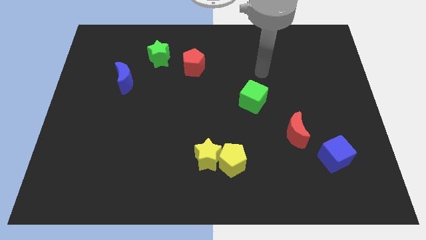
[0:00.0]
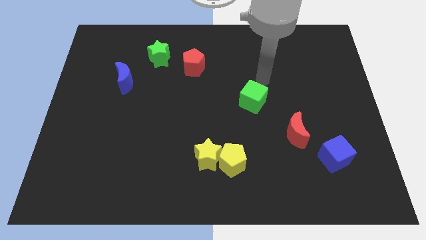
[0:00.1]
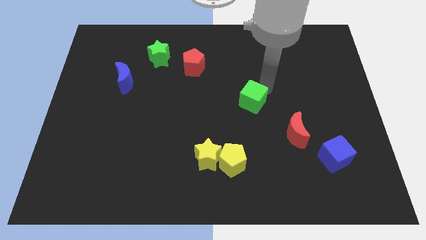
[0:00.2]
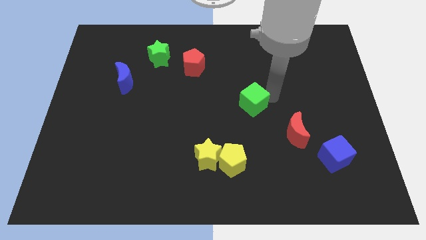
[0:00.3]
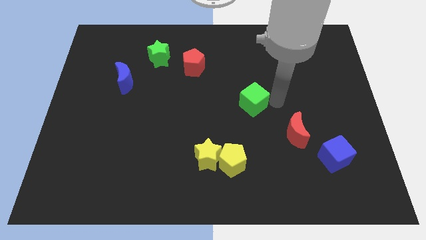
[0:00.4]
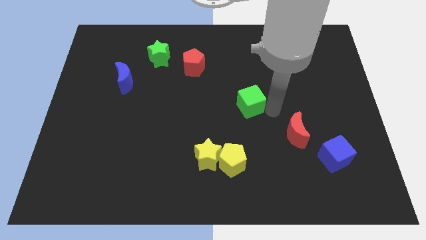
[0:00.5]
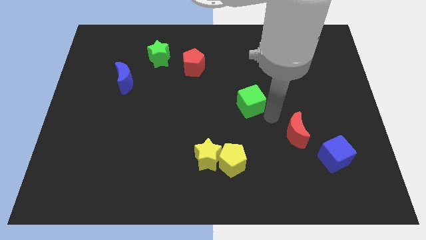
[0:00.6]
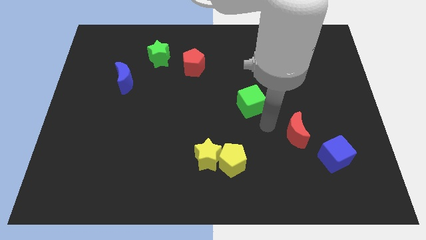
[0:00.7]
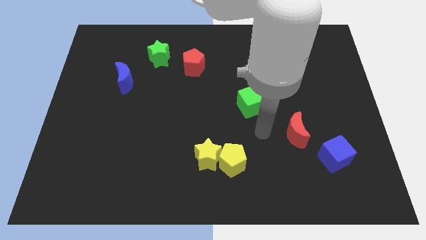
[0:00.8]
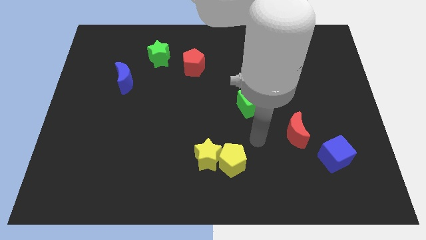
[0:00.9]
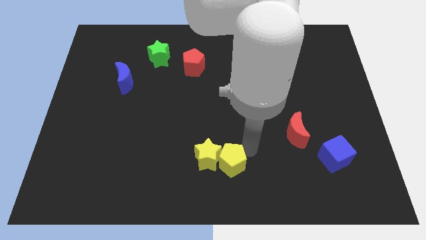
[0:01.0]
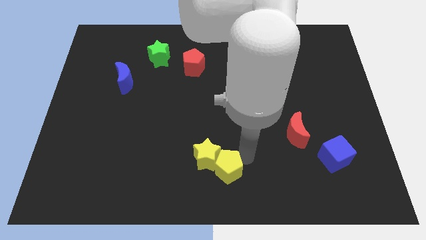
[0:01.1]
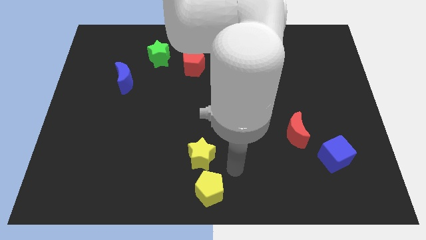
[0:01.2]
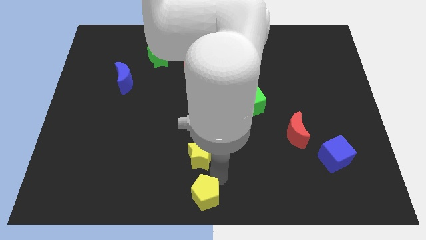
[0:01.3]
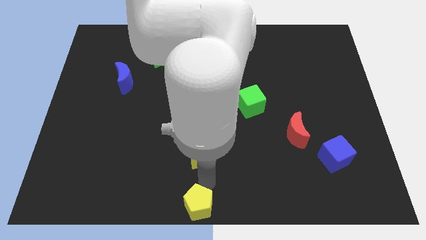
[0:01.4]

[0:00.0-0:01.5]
move the yellow star away from the yellow pentagon

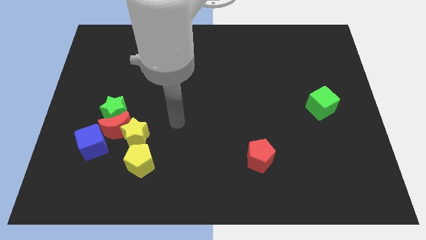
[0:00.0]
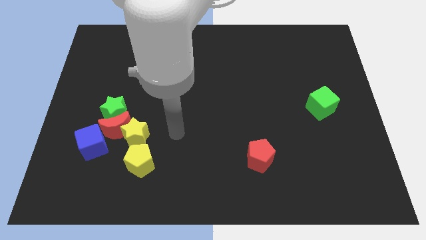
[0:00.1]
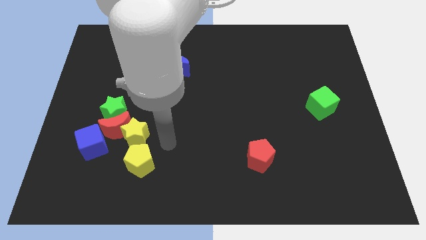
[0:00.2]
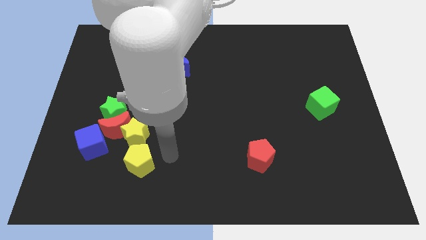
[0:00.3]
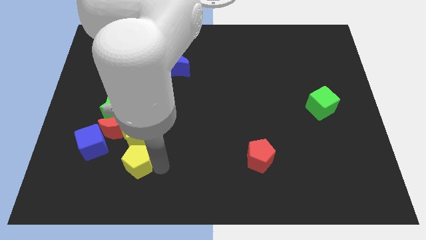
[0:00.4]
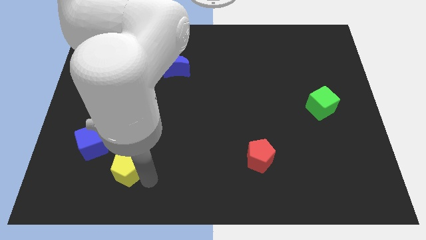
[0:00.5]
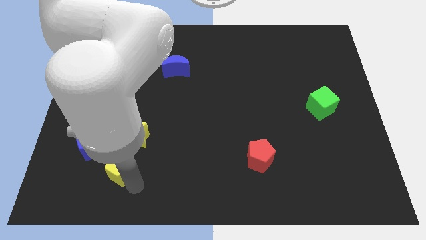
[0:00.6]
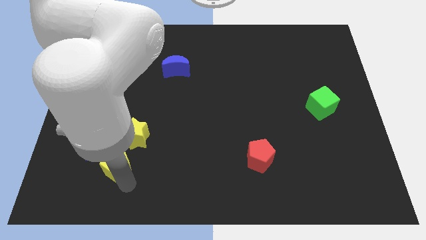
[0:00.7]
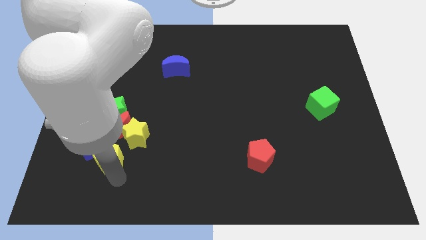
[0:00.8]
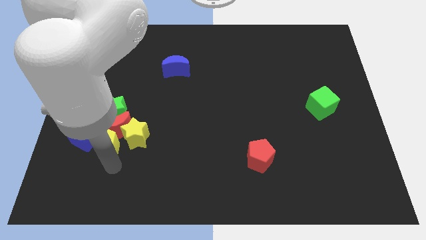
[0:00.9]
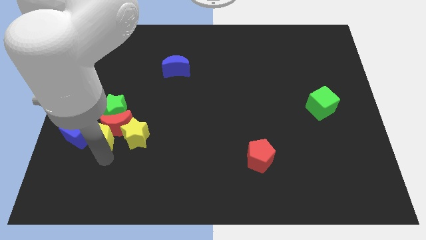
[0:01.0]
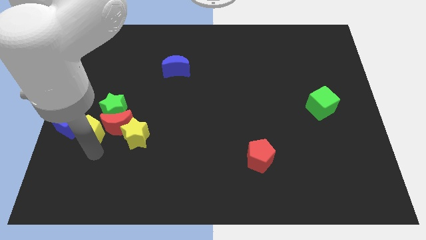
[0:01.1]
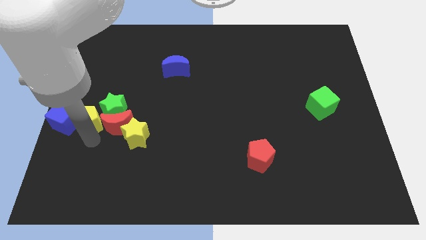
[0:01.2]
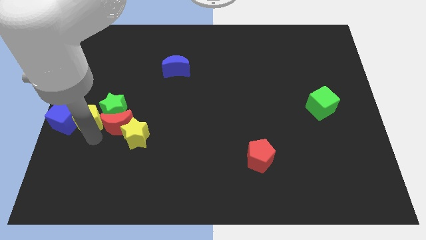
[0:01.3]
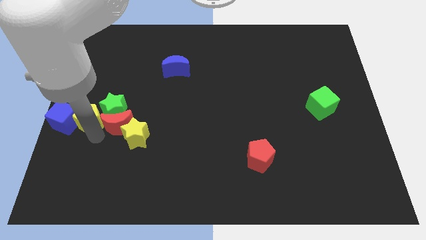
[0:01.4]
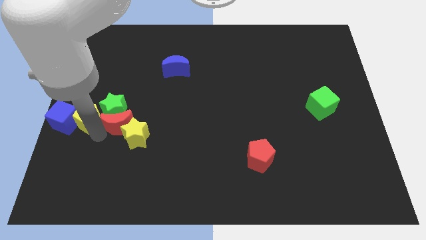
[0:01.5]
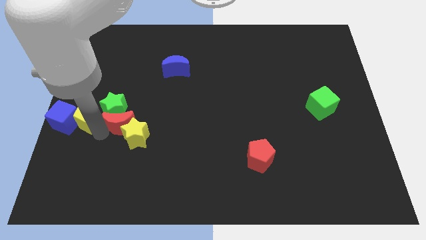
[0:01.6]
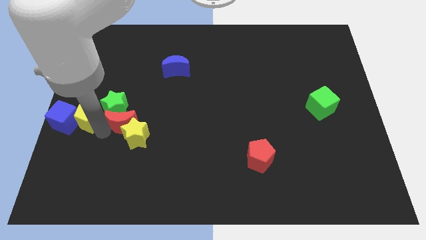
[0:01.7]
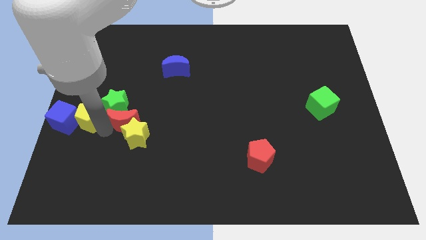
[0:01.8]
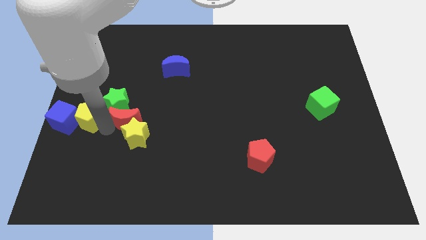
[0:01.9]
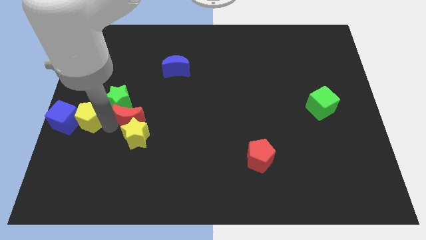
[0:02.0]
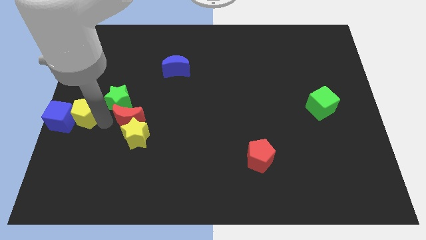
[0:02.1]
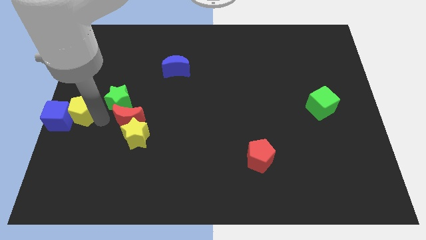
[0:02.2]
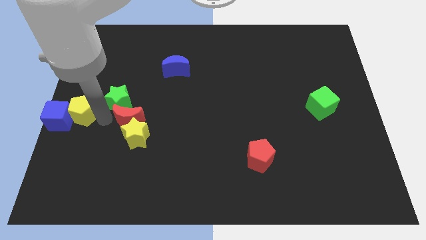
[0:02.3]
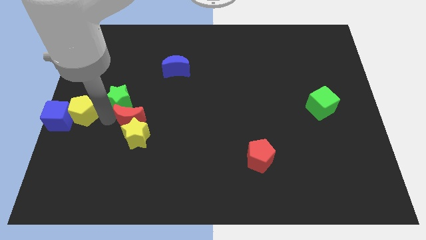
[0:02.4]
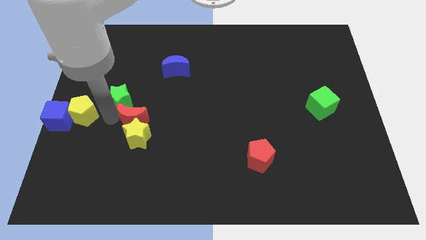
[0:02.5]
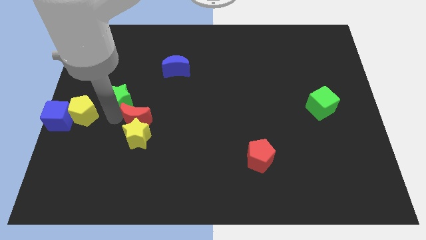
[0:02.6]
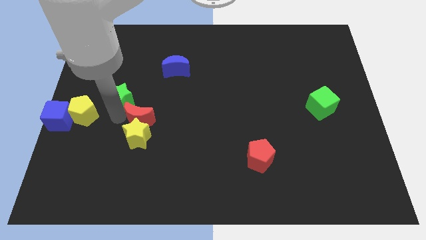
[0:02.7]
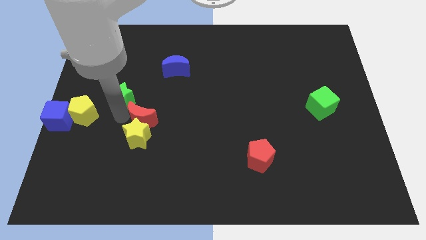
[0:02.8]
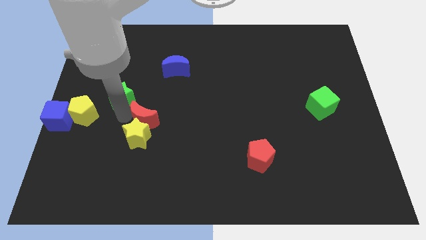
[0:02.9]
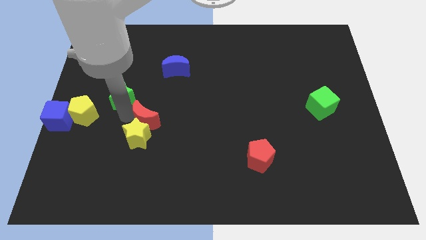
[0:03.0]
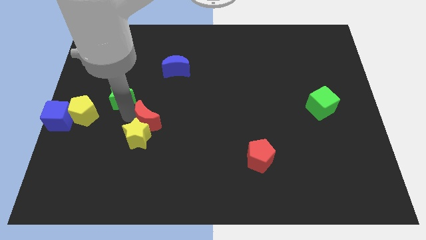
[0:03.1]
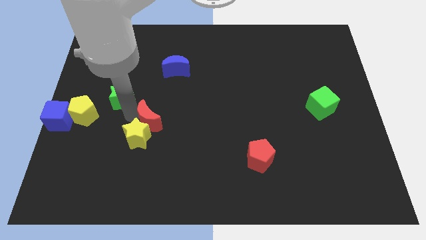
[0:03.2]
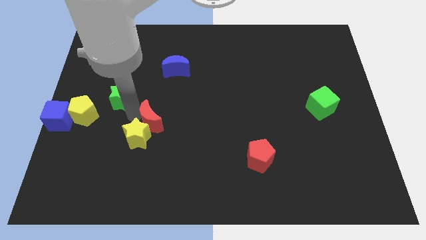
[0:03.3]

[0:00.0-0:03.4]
move the red moon away from the yellow star, green star, and blue cube

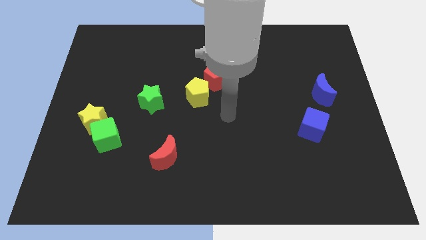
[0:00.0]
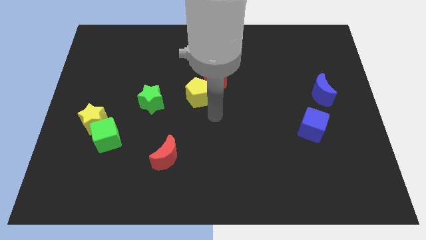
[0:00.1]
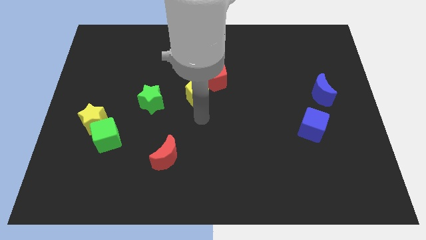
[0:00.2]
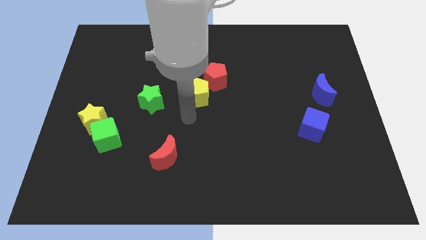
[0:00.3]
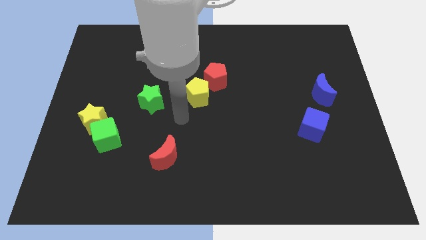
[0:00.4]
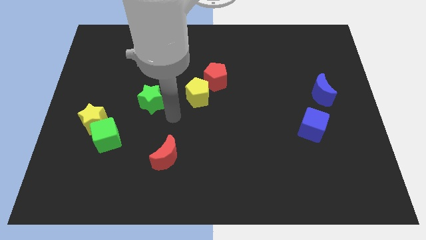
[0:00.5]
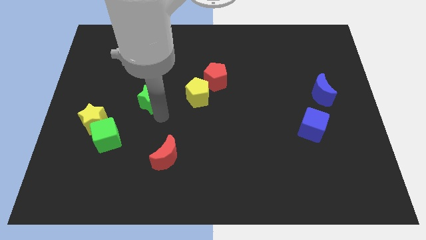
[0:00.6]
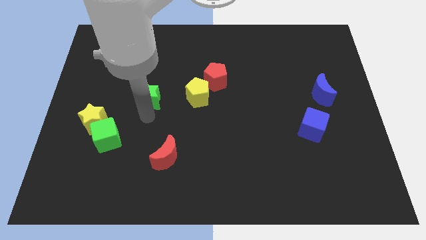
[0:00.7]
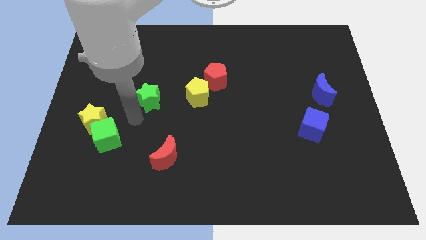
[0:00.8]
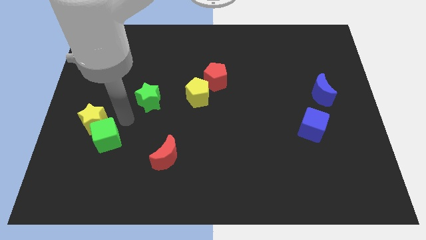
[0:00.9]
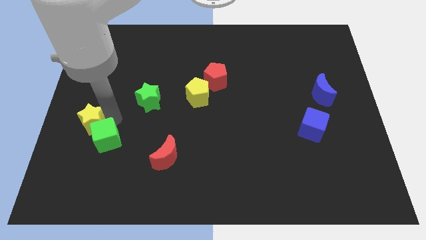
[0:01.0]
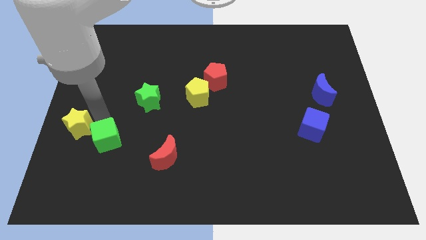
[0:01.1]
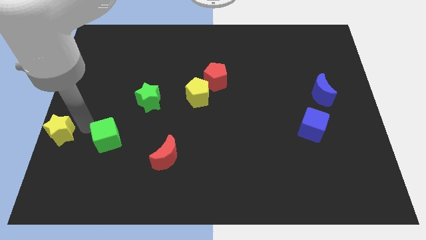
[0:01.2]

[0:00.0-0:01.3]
separate the green cube from the yellow star

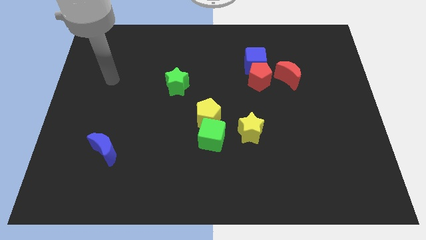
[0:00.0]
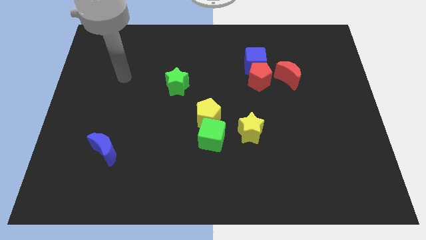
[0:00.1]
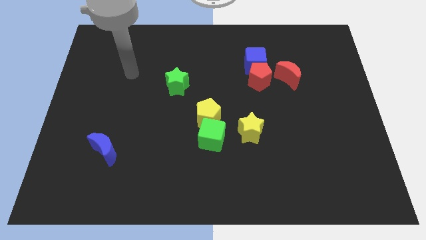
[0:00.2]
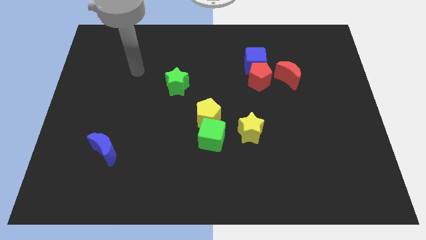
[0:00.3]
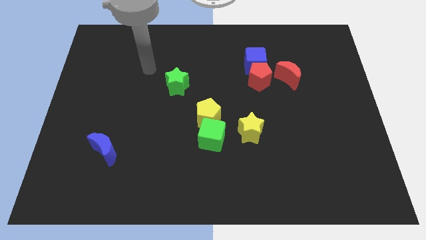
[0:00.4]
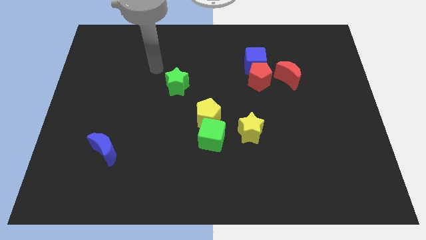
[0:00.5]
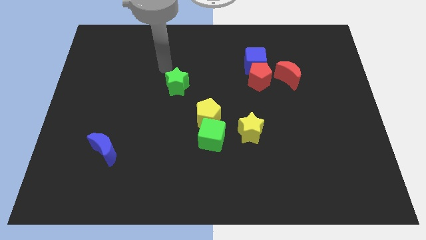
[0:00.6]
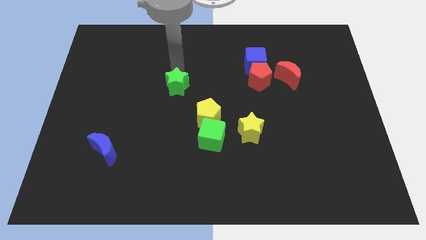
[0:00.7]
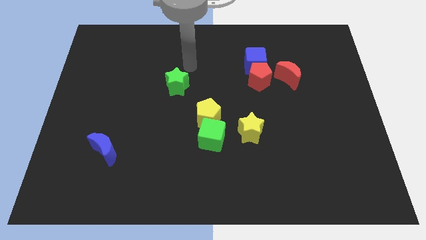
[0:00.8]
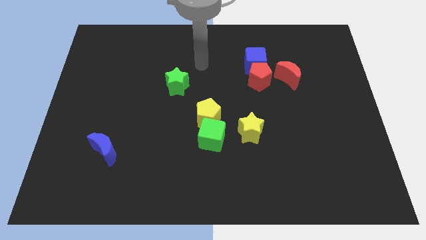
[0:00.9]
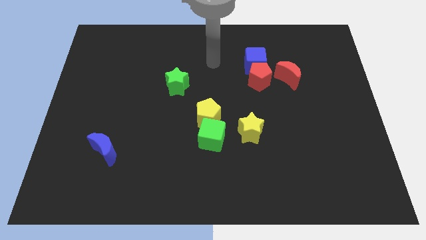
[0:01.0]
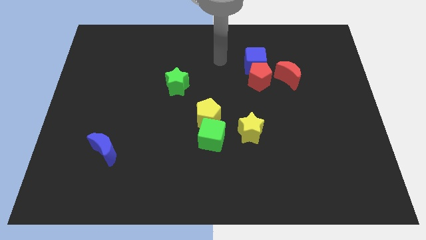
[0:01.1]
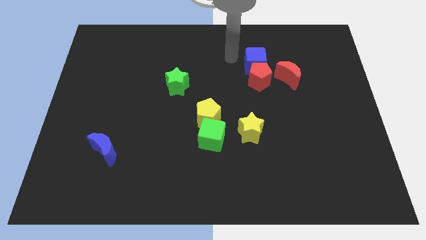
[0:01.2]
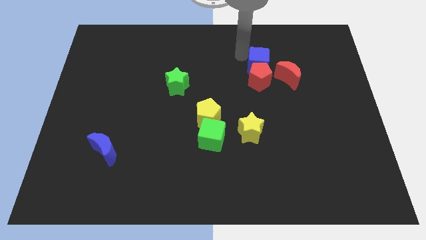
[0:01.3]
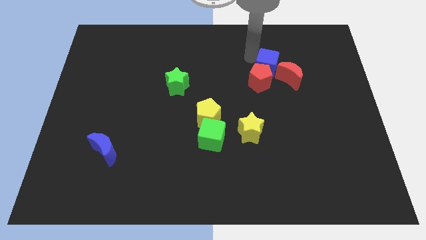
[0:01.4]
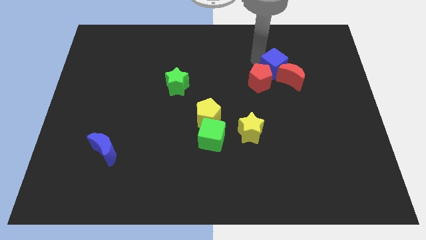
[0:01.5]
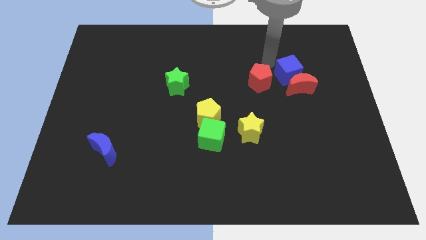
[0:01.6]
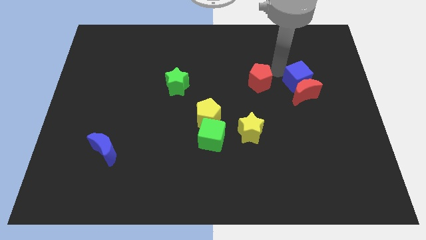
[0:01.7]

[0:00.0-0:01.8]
separate the red pentagon from the blue cube and red moon

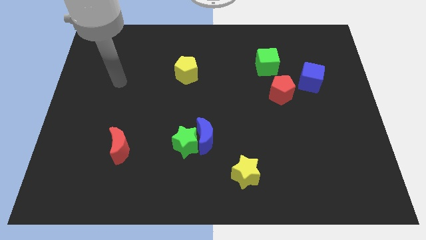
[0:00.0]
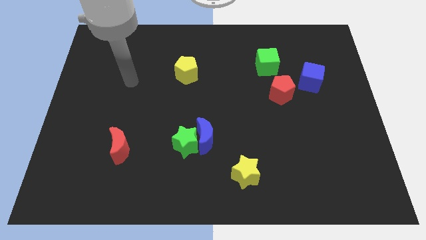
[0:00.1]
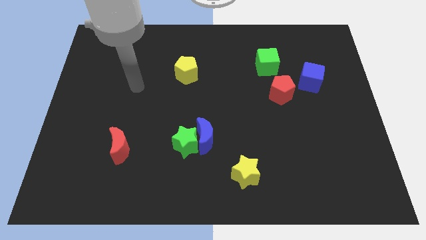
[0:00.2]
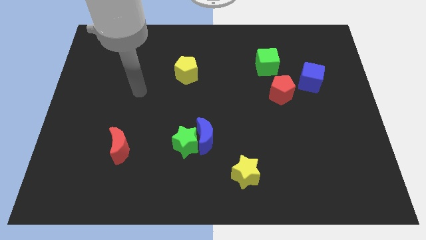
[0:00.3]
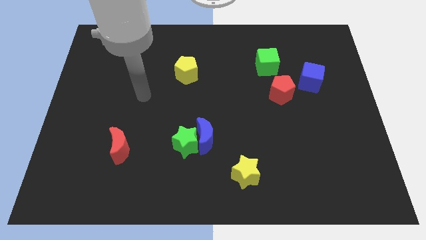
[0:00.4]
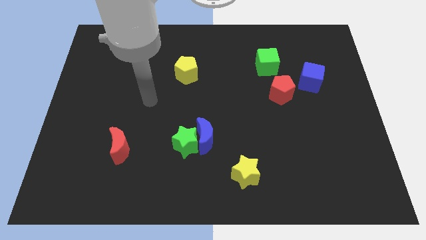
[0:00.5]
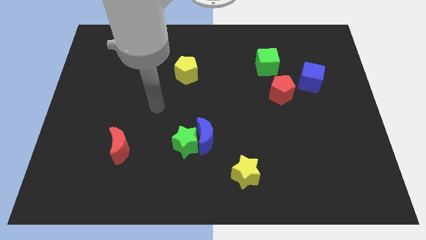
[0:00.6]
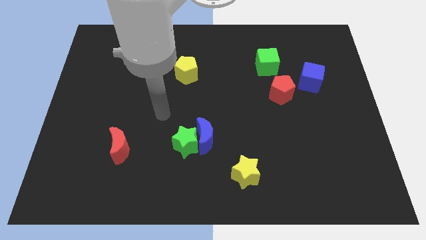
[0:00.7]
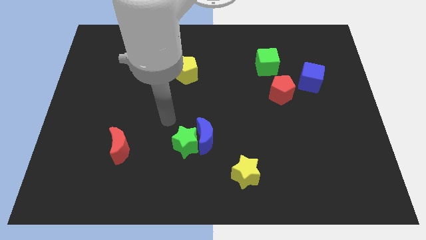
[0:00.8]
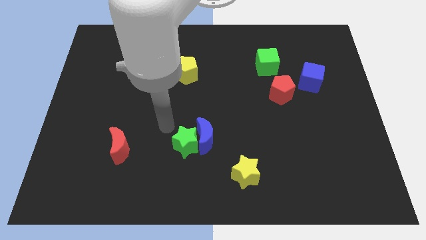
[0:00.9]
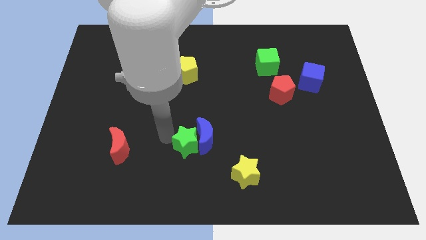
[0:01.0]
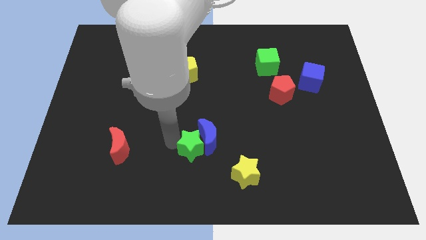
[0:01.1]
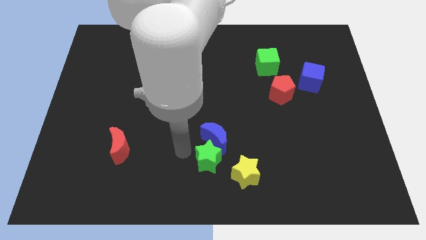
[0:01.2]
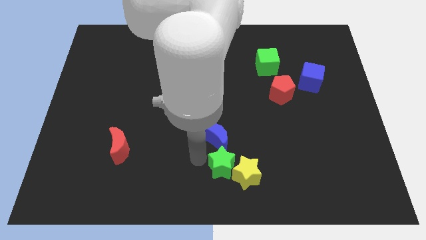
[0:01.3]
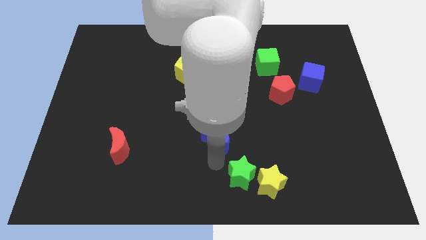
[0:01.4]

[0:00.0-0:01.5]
separate the blue moon from the green star

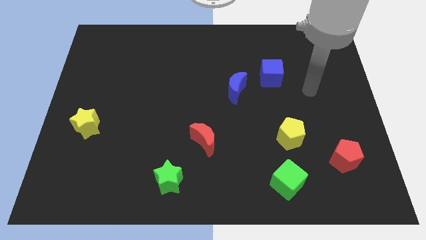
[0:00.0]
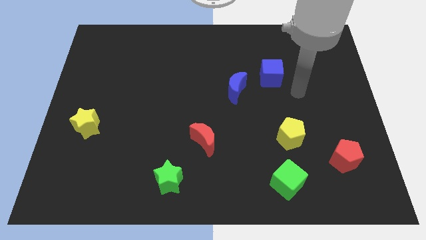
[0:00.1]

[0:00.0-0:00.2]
move the blue moon away from the blue cube
